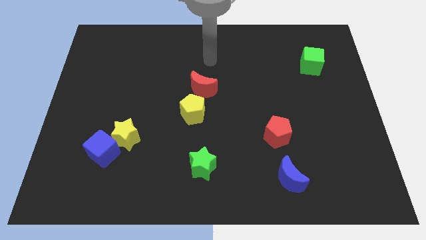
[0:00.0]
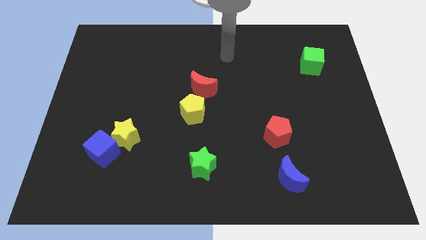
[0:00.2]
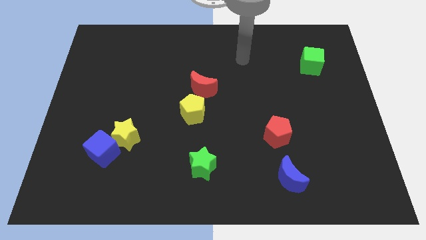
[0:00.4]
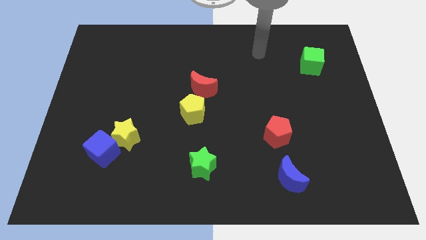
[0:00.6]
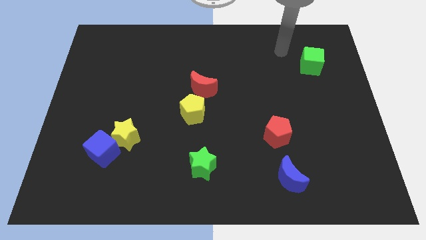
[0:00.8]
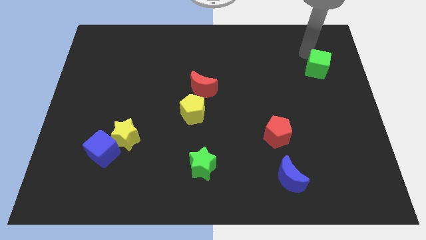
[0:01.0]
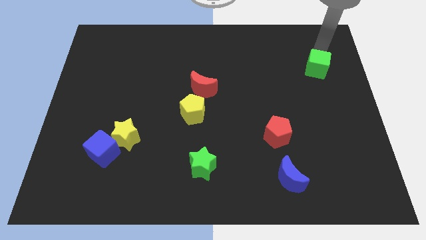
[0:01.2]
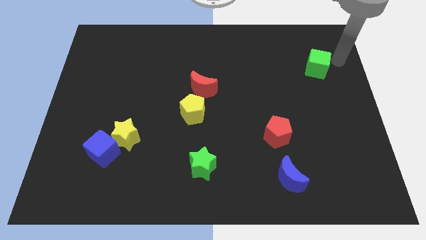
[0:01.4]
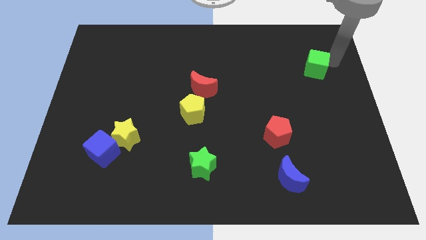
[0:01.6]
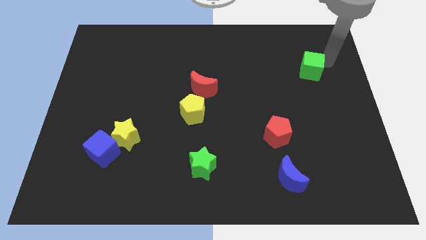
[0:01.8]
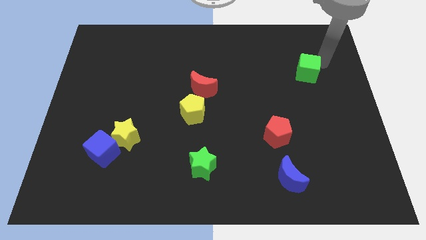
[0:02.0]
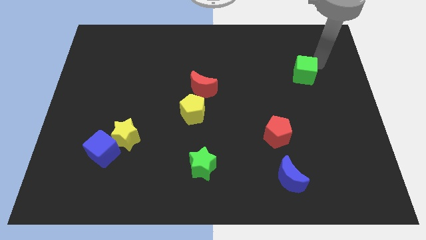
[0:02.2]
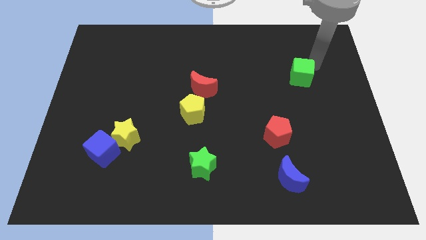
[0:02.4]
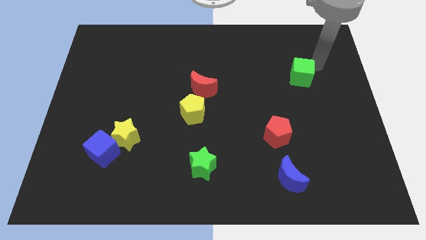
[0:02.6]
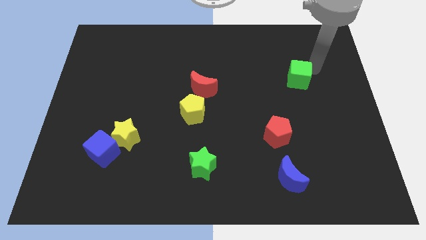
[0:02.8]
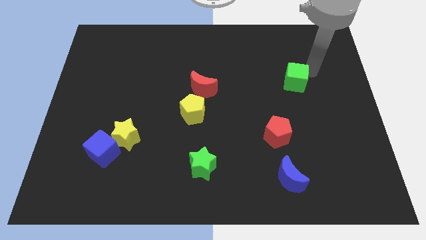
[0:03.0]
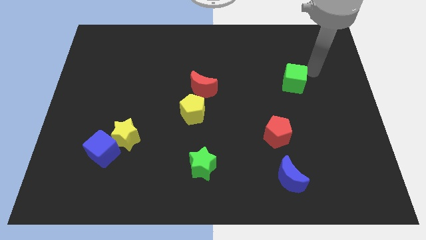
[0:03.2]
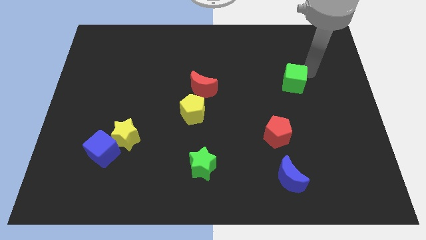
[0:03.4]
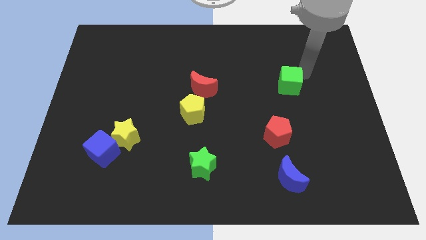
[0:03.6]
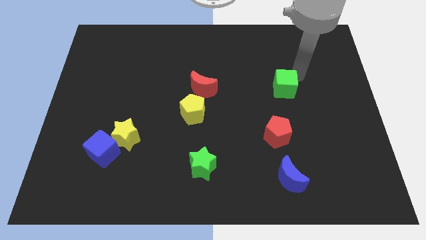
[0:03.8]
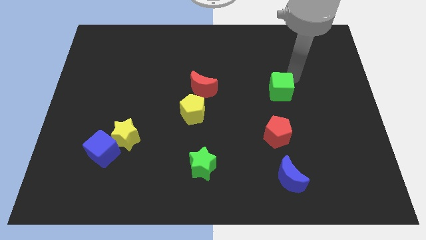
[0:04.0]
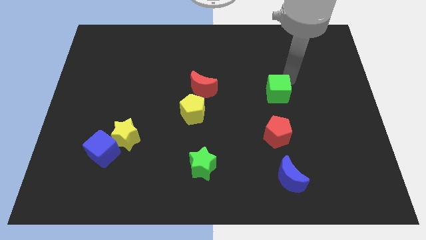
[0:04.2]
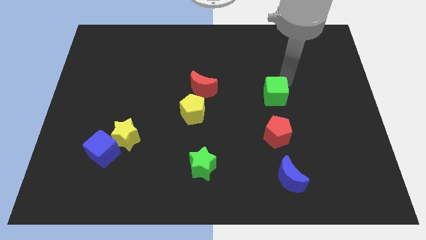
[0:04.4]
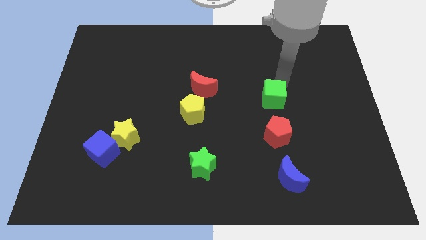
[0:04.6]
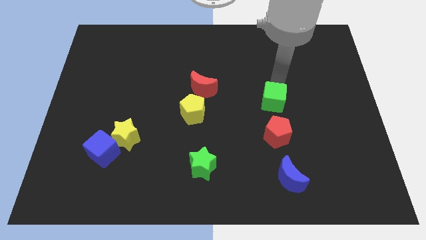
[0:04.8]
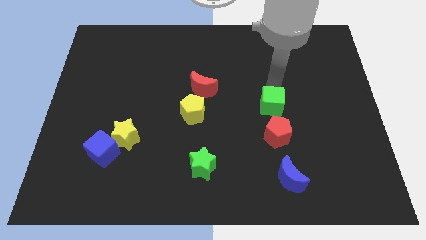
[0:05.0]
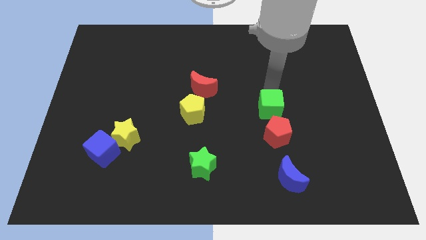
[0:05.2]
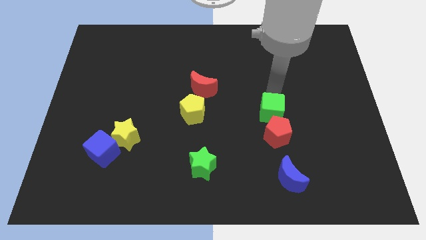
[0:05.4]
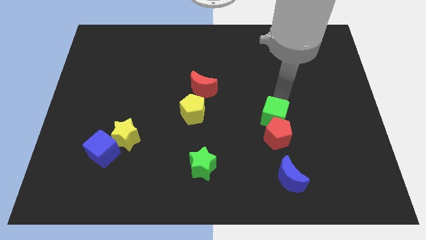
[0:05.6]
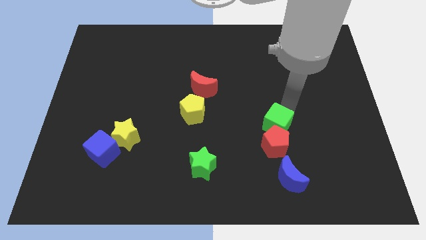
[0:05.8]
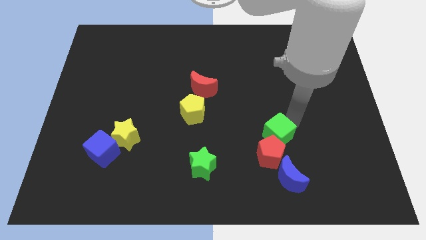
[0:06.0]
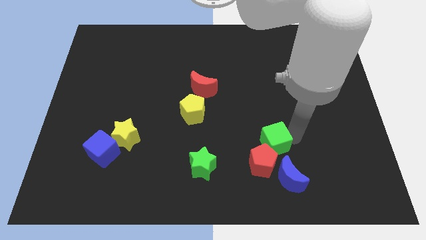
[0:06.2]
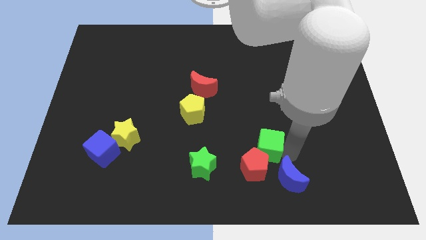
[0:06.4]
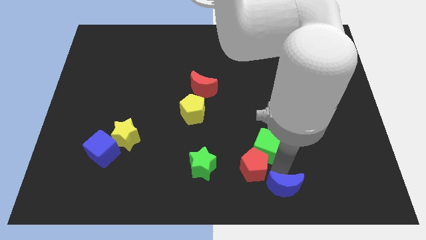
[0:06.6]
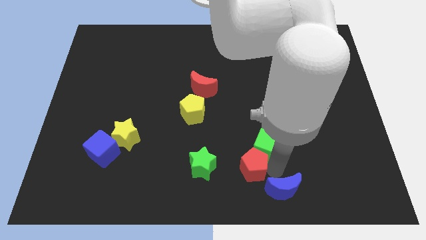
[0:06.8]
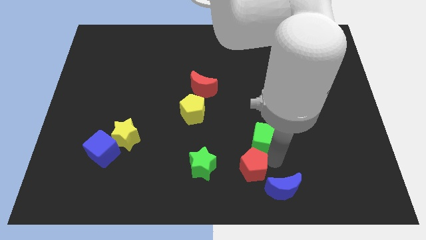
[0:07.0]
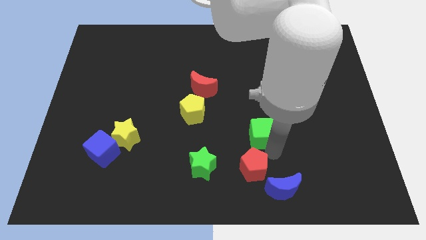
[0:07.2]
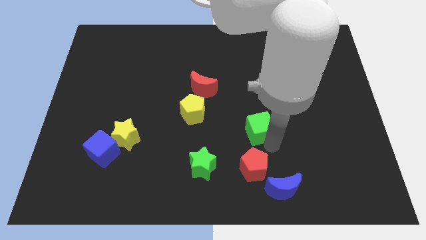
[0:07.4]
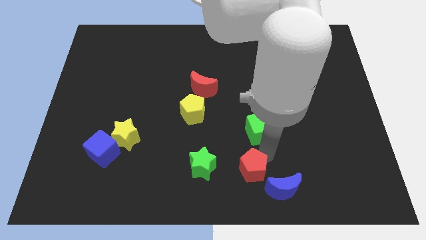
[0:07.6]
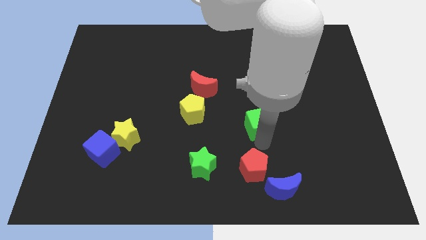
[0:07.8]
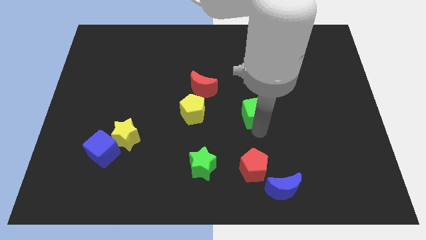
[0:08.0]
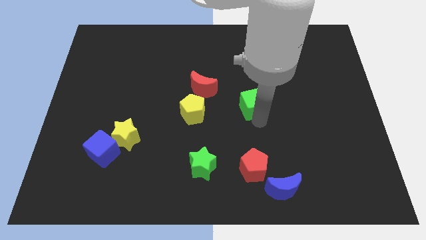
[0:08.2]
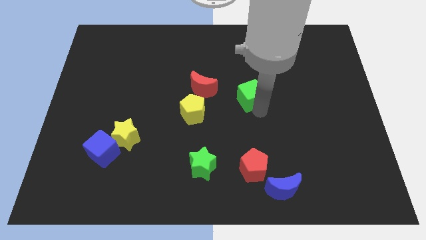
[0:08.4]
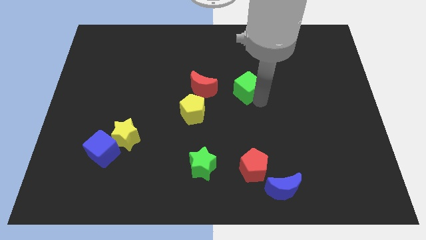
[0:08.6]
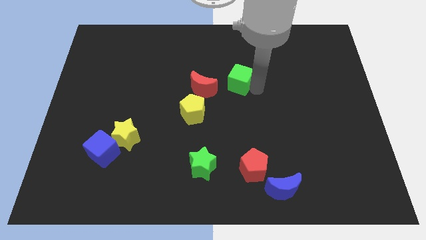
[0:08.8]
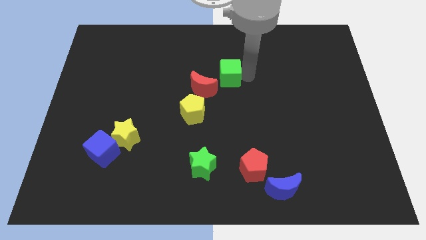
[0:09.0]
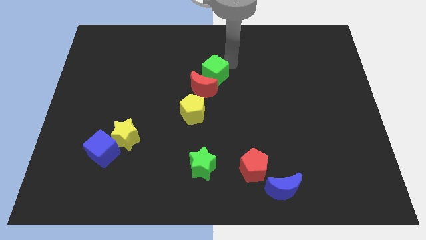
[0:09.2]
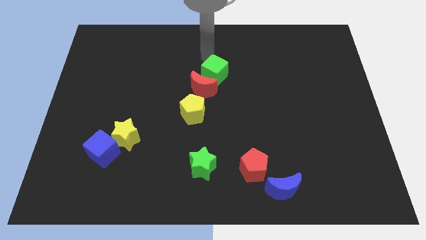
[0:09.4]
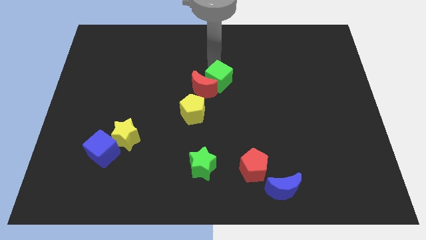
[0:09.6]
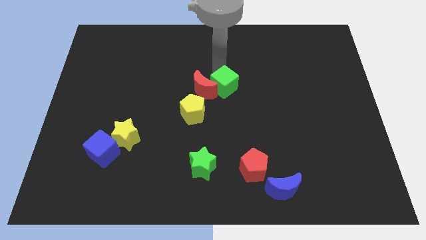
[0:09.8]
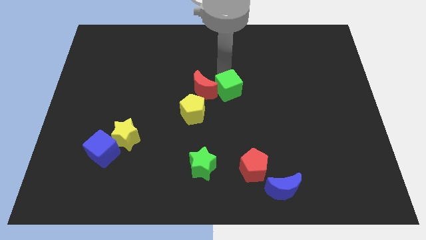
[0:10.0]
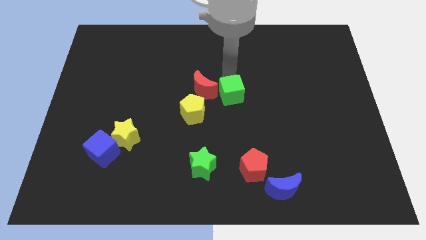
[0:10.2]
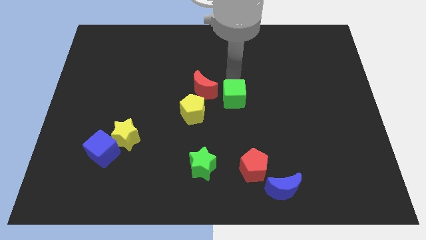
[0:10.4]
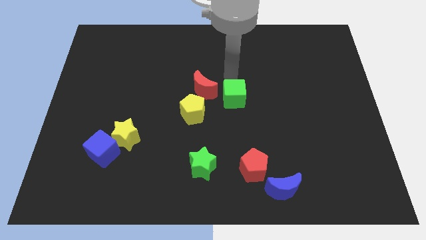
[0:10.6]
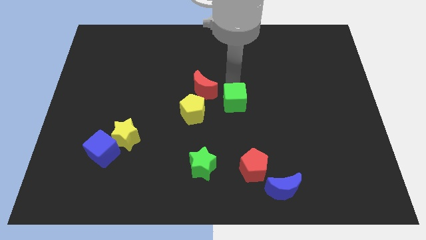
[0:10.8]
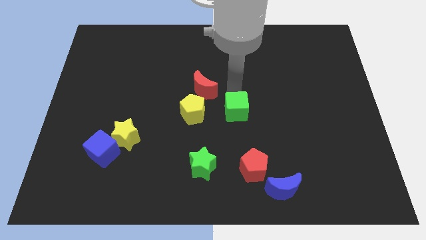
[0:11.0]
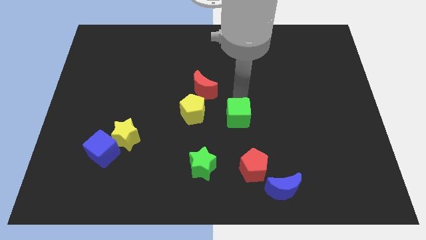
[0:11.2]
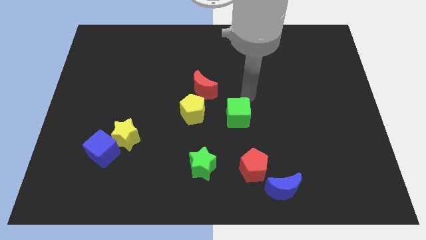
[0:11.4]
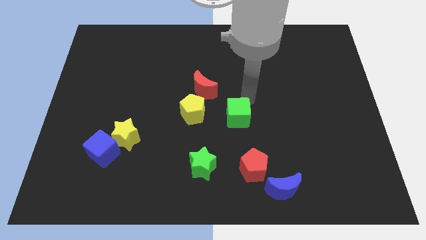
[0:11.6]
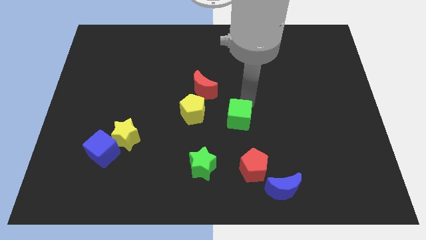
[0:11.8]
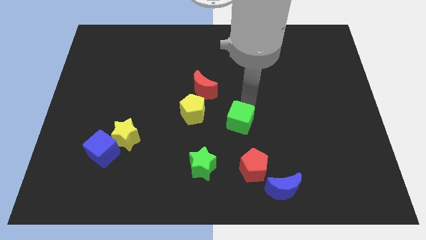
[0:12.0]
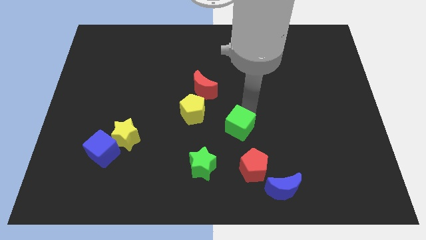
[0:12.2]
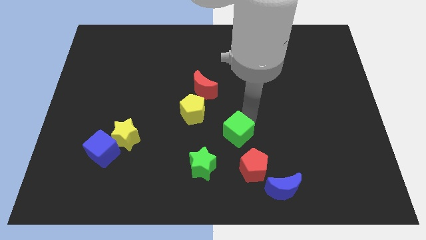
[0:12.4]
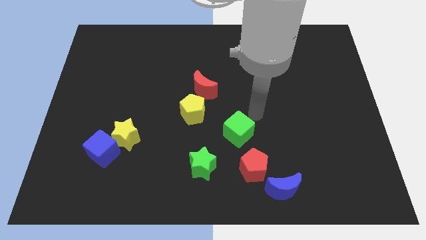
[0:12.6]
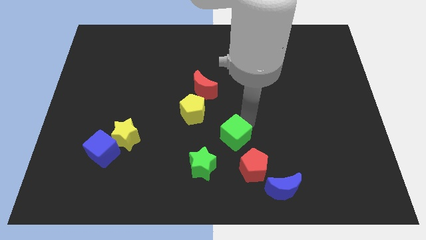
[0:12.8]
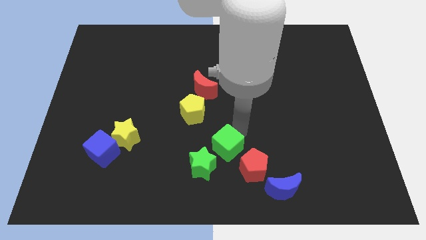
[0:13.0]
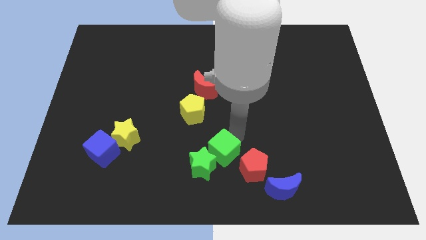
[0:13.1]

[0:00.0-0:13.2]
slide the green cube towards the green star

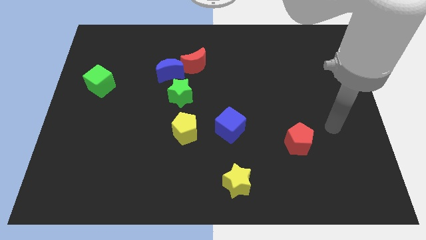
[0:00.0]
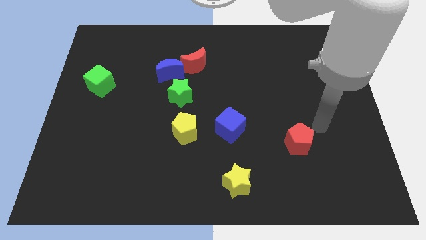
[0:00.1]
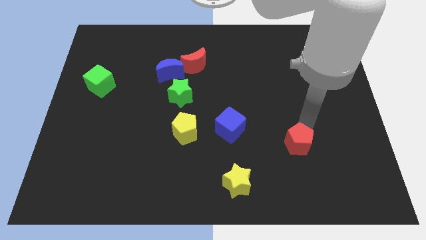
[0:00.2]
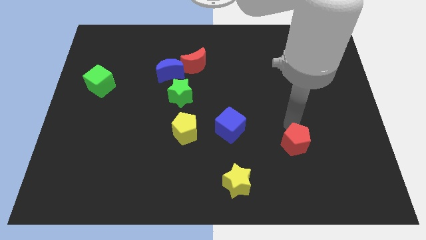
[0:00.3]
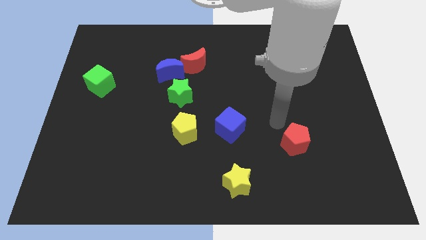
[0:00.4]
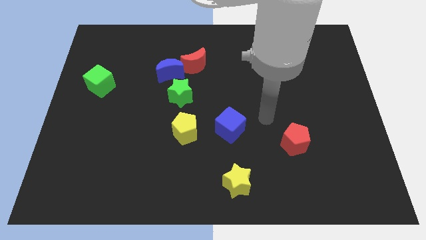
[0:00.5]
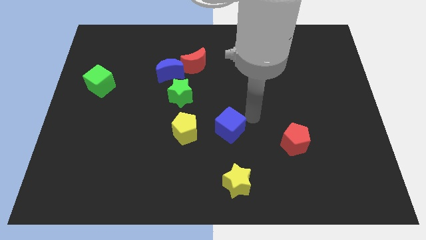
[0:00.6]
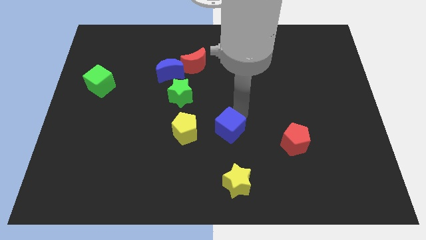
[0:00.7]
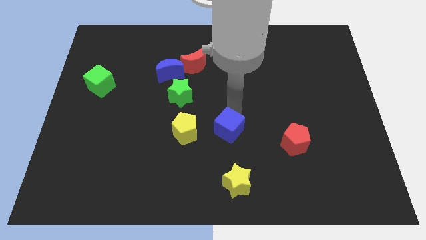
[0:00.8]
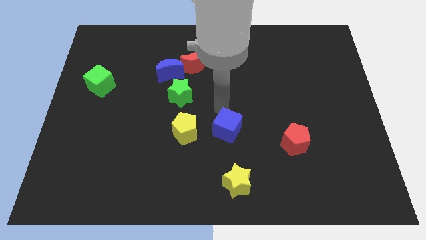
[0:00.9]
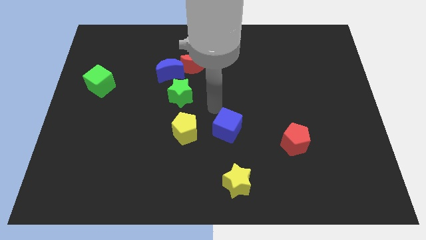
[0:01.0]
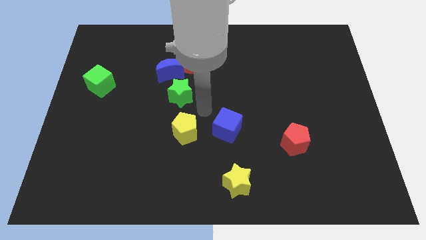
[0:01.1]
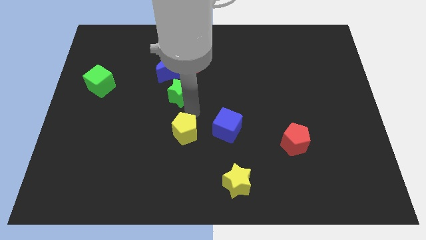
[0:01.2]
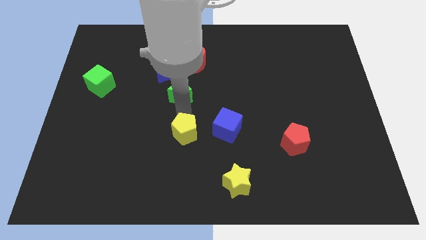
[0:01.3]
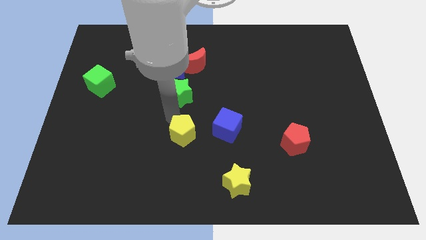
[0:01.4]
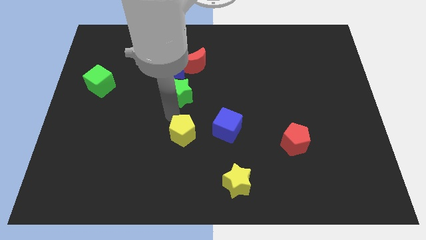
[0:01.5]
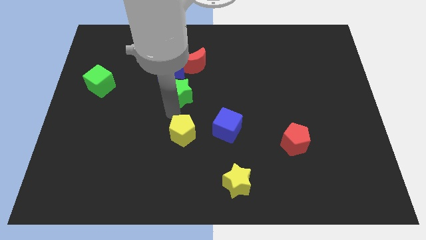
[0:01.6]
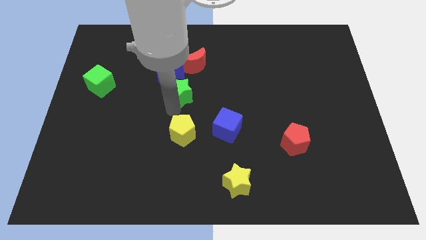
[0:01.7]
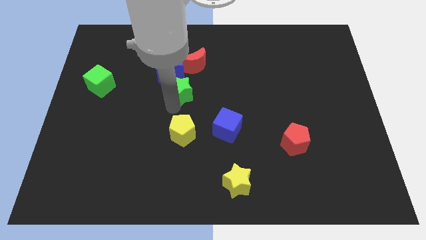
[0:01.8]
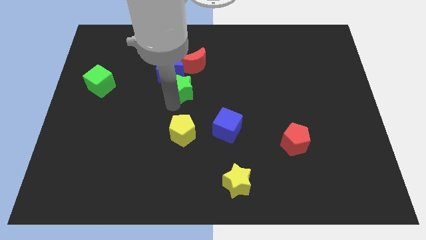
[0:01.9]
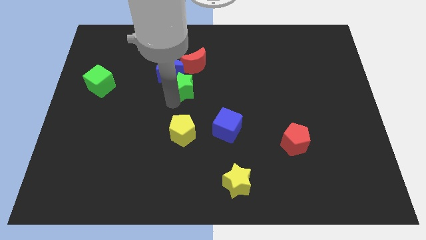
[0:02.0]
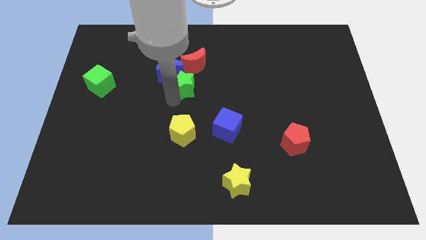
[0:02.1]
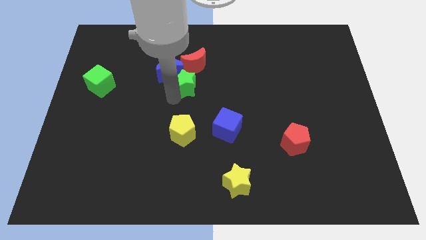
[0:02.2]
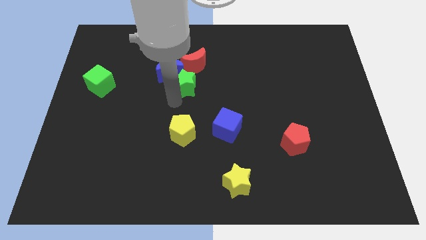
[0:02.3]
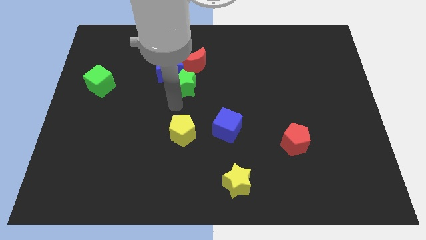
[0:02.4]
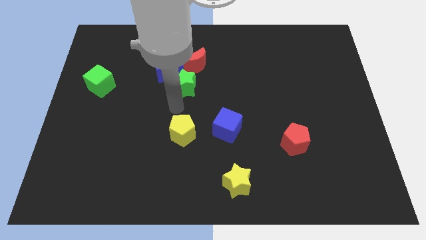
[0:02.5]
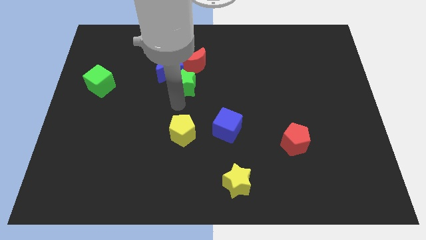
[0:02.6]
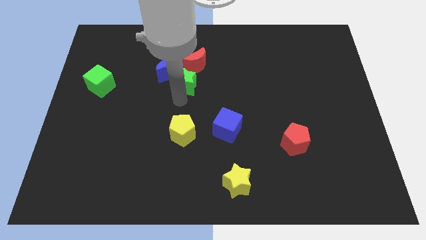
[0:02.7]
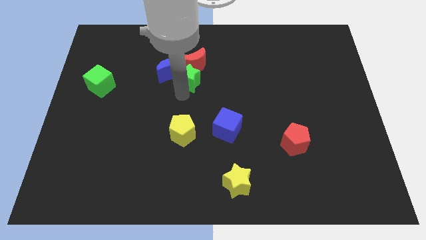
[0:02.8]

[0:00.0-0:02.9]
push the green star towards the red moon
